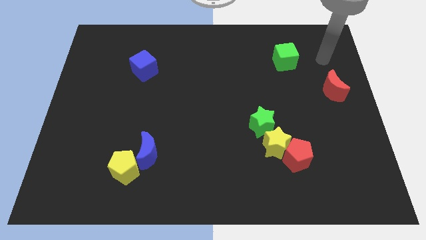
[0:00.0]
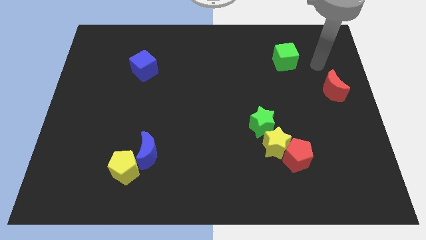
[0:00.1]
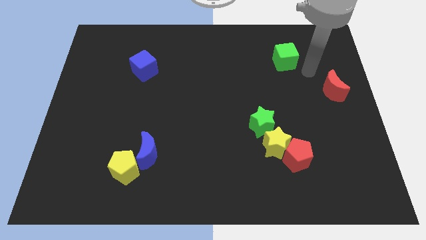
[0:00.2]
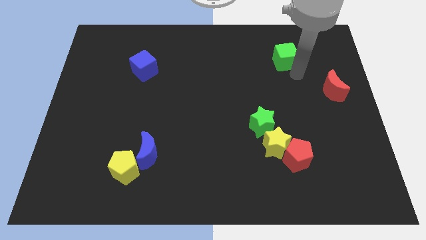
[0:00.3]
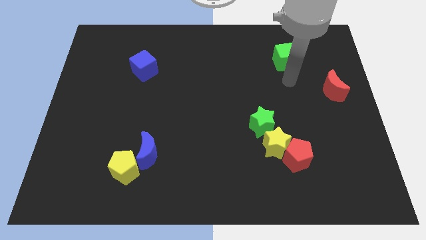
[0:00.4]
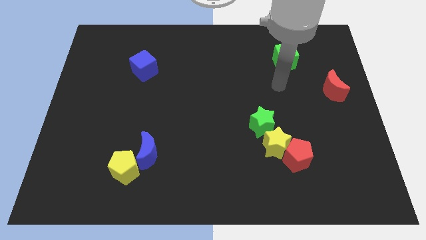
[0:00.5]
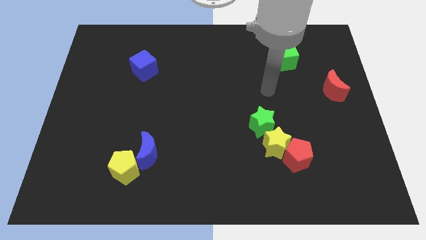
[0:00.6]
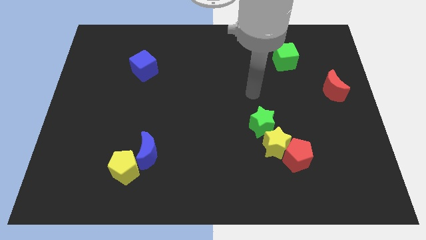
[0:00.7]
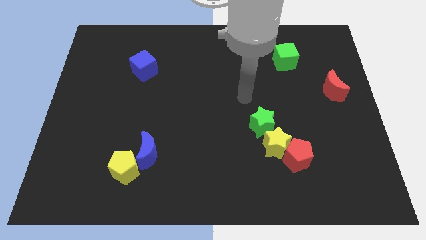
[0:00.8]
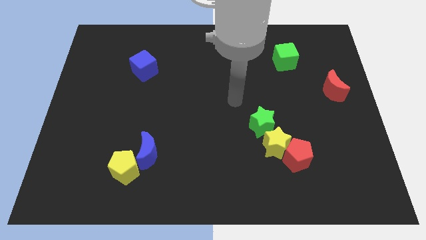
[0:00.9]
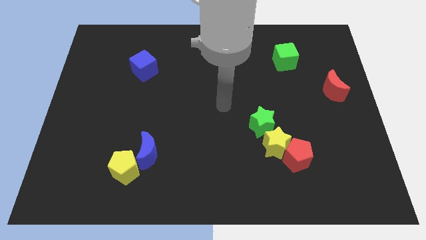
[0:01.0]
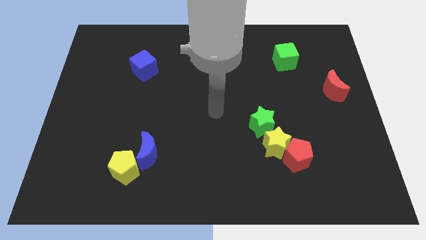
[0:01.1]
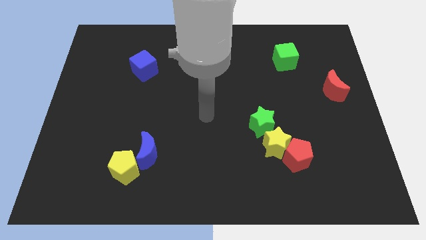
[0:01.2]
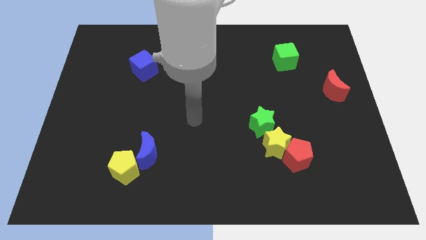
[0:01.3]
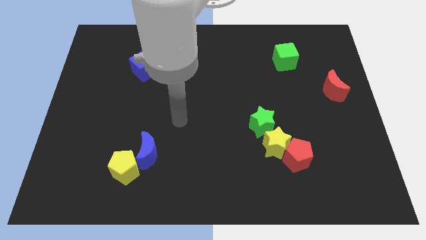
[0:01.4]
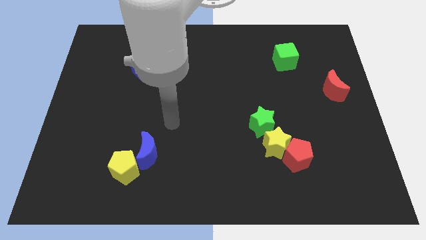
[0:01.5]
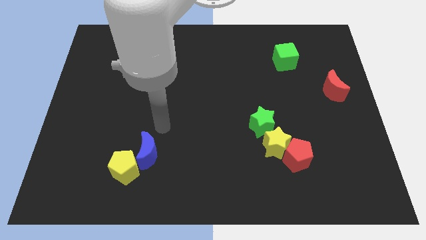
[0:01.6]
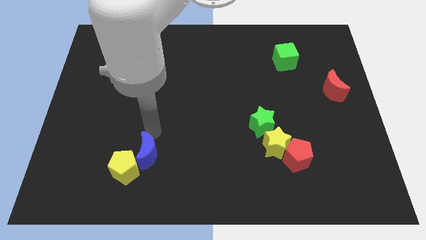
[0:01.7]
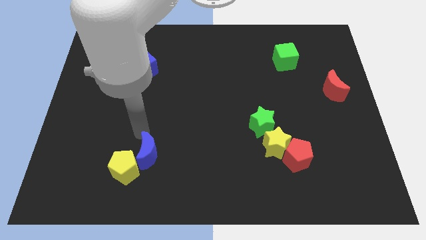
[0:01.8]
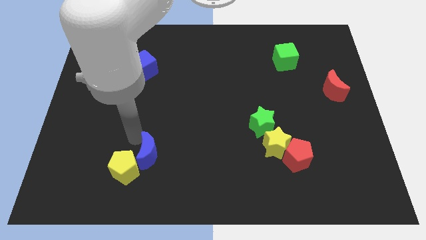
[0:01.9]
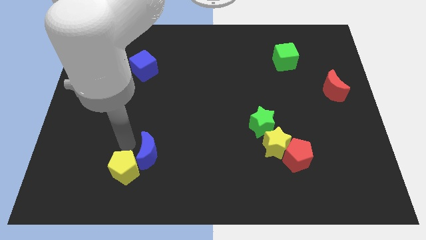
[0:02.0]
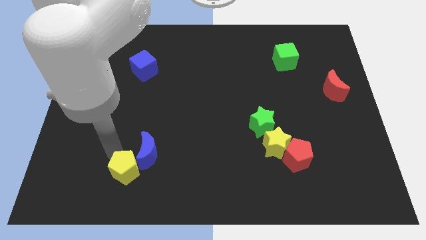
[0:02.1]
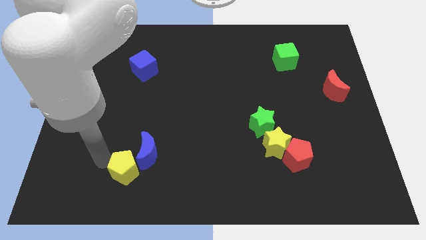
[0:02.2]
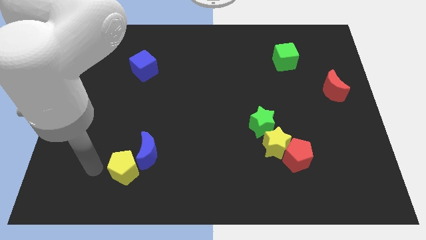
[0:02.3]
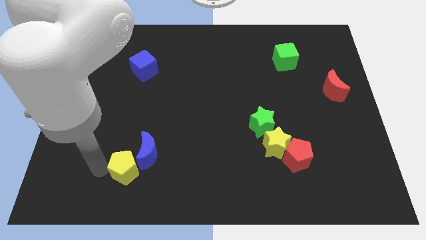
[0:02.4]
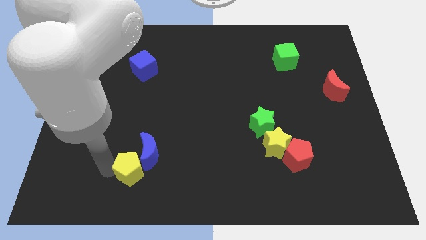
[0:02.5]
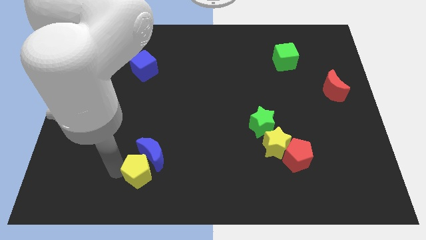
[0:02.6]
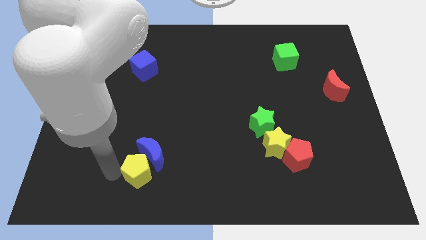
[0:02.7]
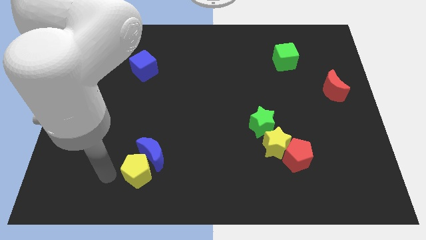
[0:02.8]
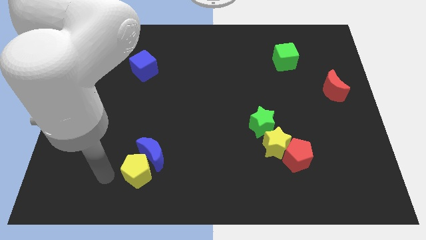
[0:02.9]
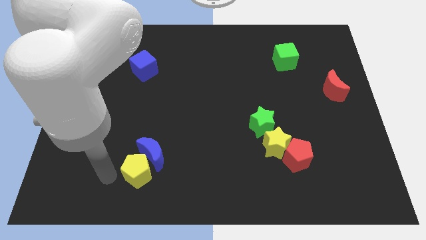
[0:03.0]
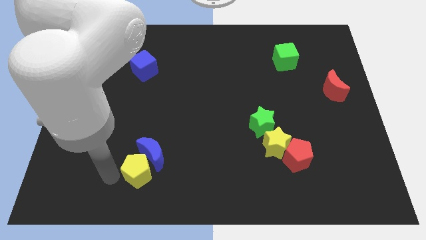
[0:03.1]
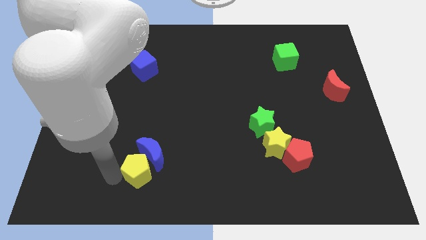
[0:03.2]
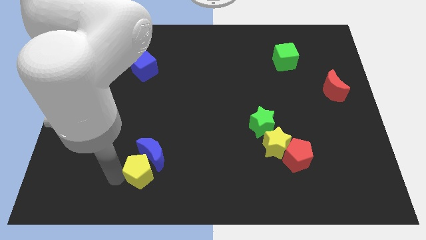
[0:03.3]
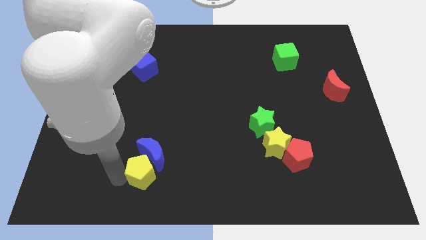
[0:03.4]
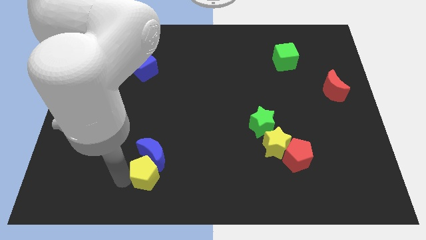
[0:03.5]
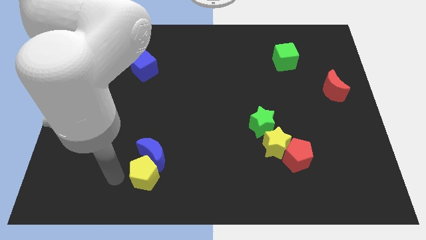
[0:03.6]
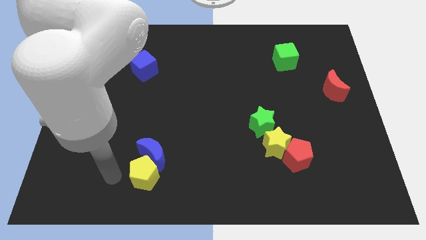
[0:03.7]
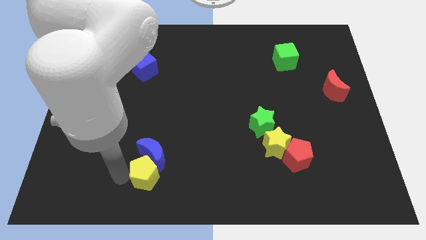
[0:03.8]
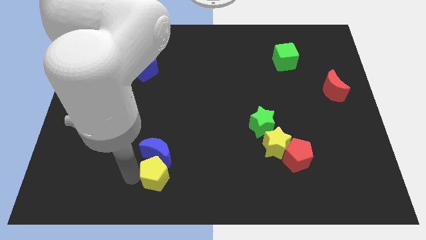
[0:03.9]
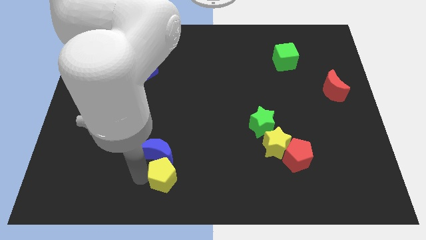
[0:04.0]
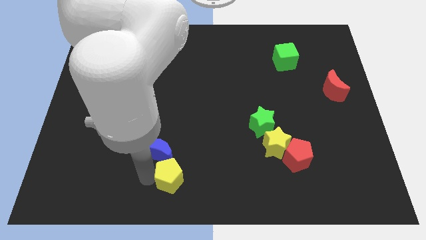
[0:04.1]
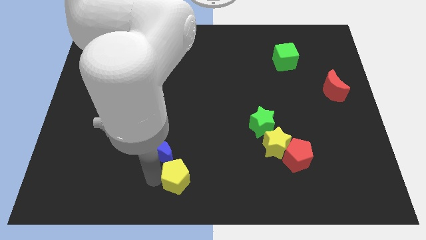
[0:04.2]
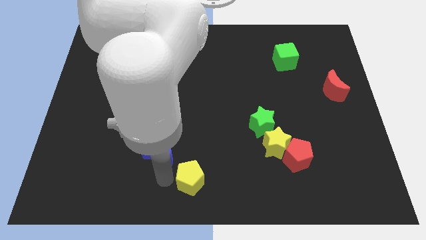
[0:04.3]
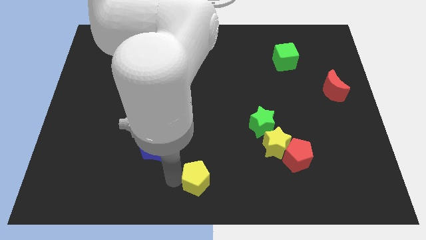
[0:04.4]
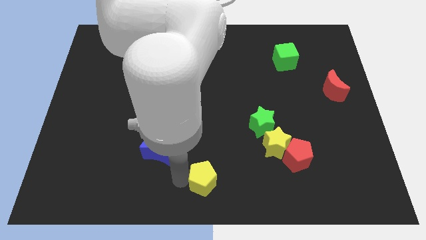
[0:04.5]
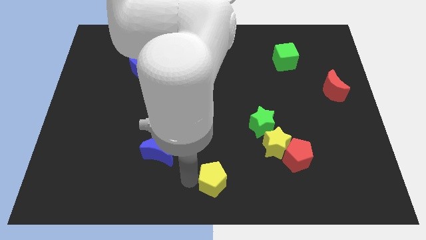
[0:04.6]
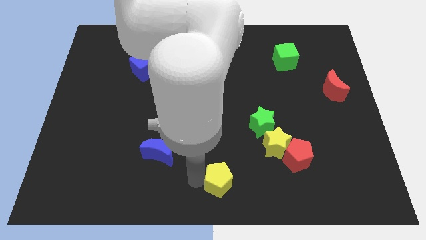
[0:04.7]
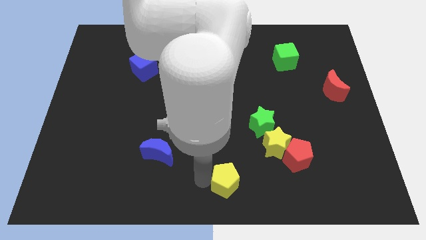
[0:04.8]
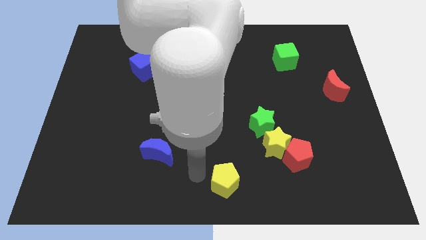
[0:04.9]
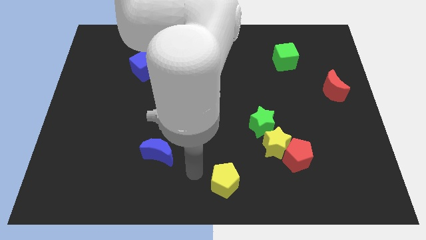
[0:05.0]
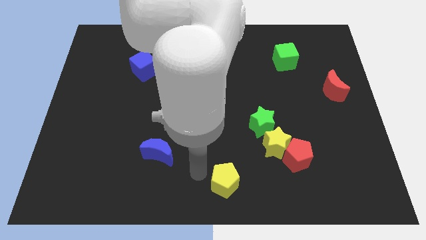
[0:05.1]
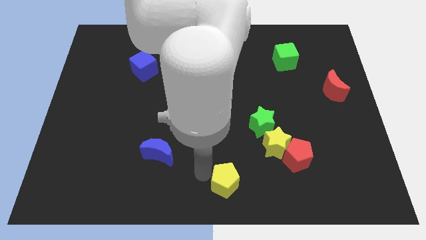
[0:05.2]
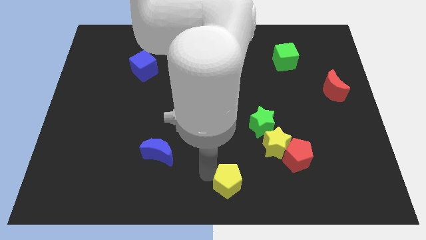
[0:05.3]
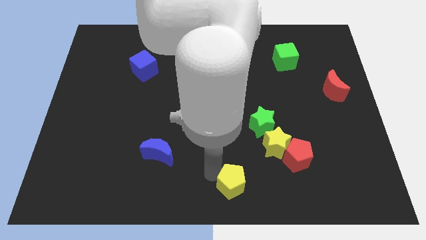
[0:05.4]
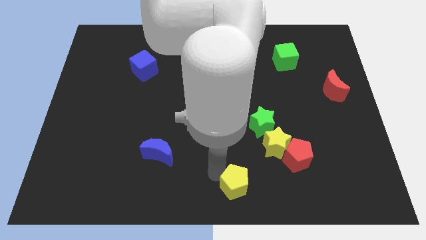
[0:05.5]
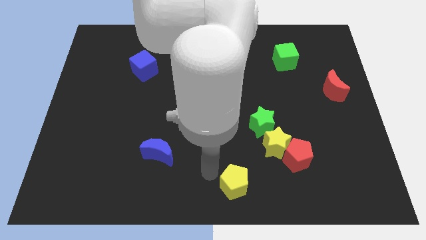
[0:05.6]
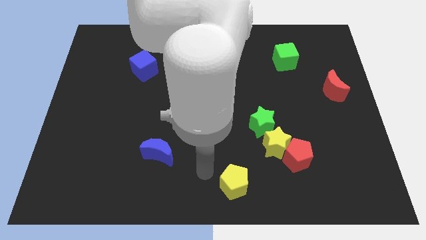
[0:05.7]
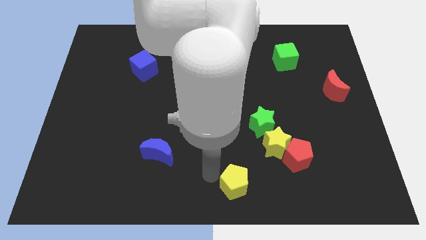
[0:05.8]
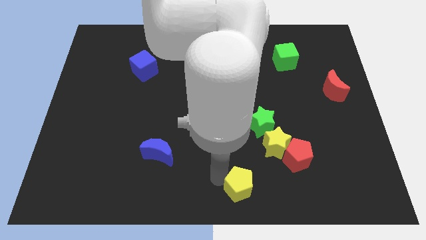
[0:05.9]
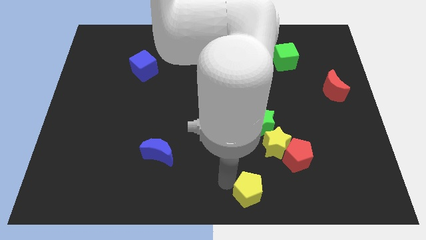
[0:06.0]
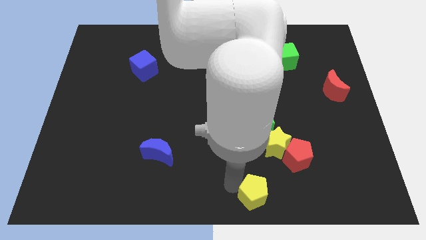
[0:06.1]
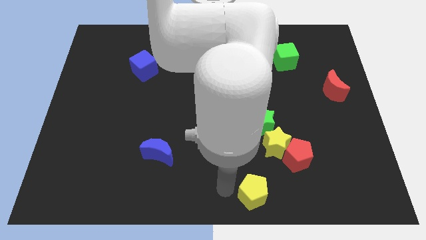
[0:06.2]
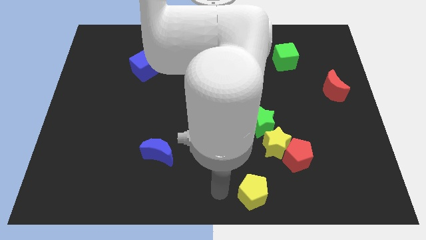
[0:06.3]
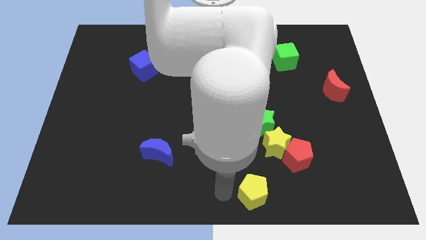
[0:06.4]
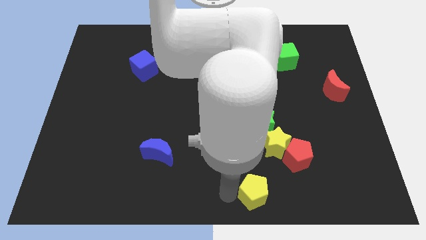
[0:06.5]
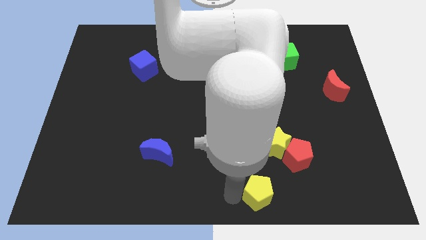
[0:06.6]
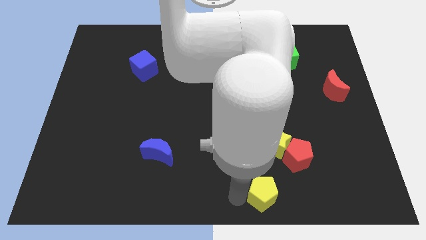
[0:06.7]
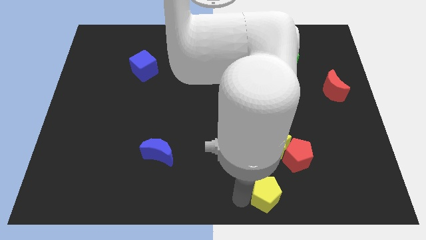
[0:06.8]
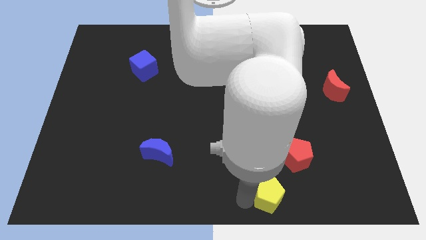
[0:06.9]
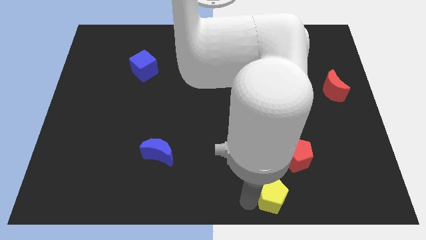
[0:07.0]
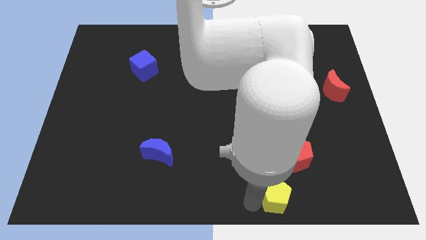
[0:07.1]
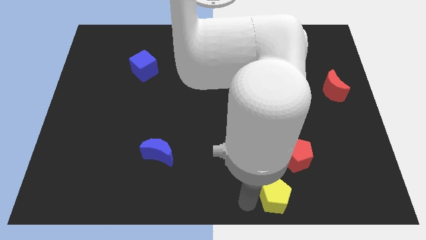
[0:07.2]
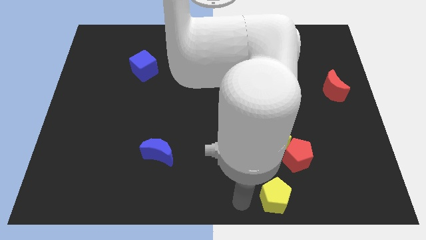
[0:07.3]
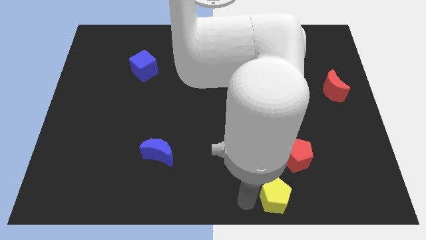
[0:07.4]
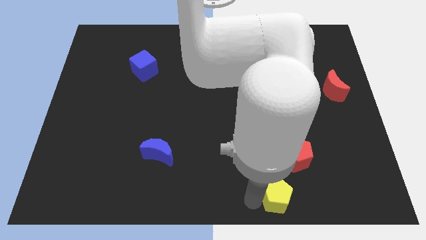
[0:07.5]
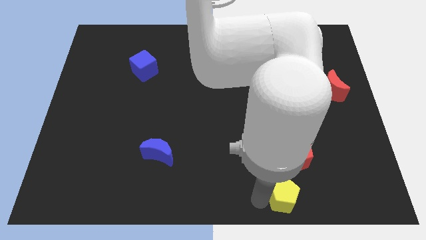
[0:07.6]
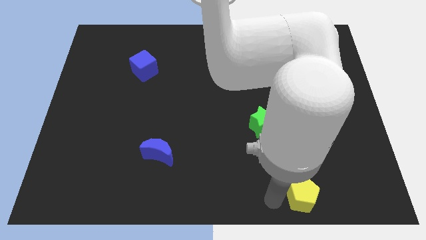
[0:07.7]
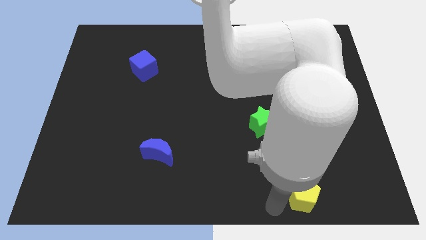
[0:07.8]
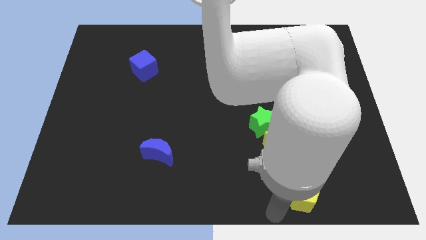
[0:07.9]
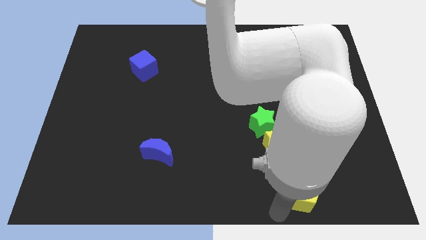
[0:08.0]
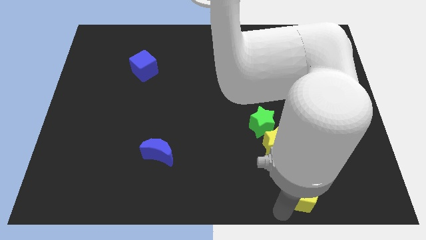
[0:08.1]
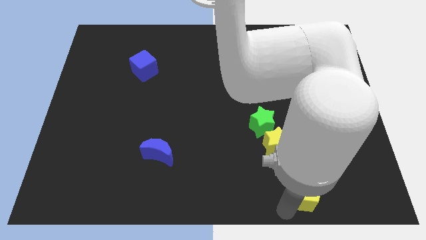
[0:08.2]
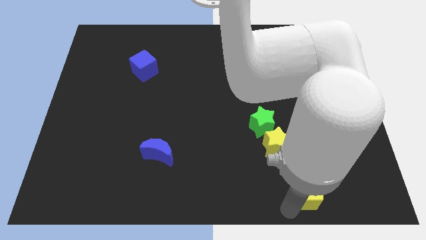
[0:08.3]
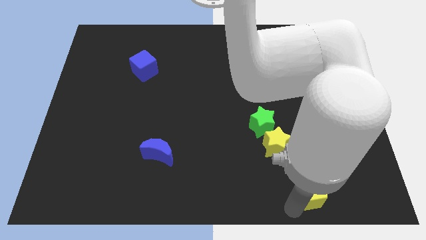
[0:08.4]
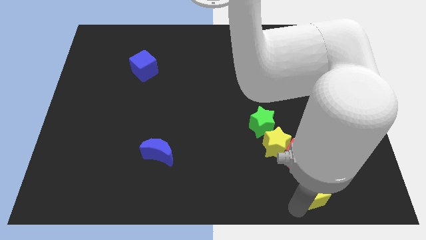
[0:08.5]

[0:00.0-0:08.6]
move the yellow pentagon diagonally down and to the right of the red pentagon
